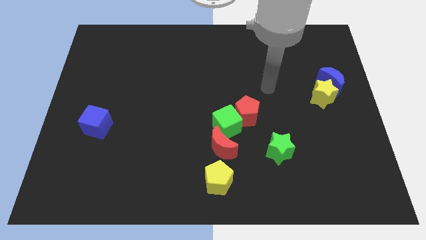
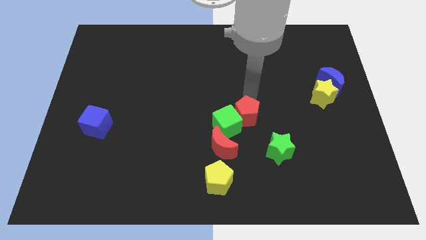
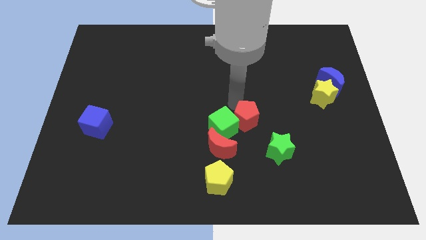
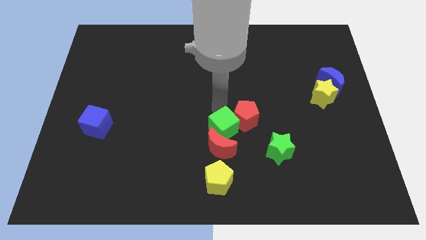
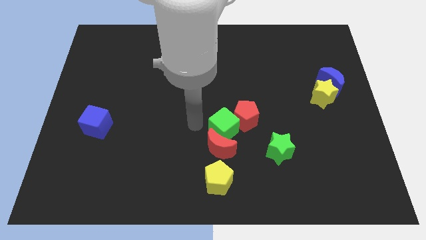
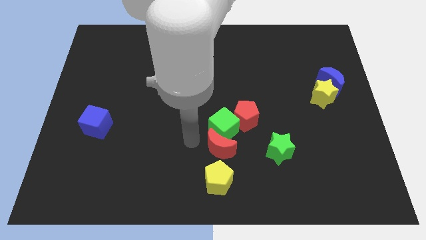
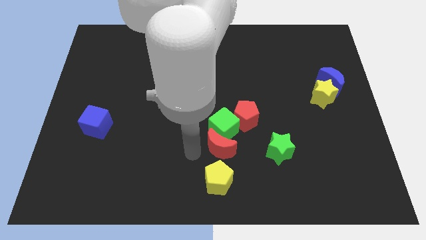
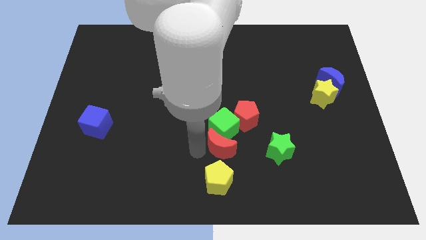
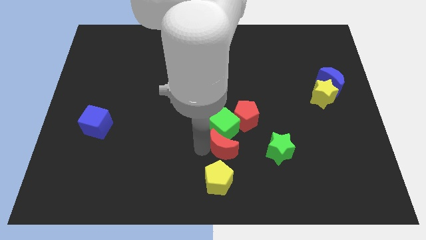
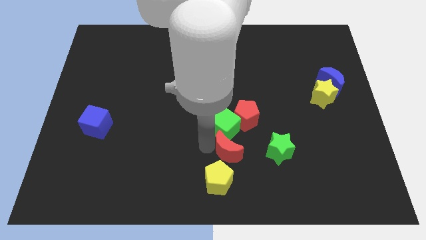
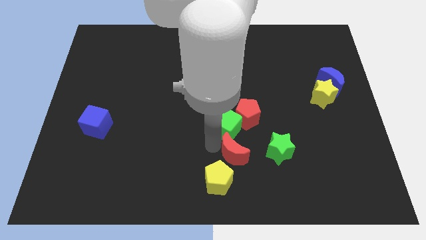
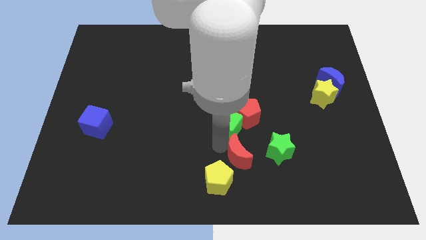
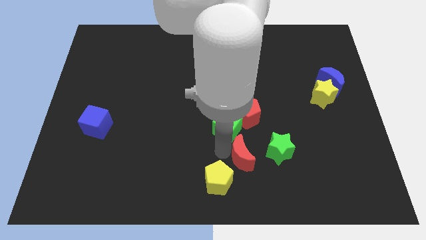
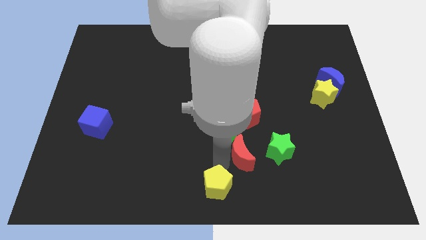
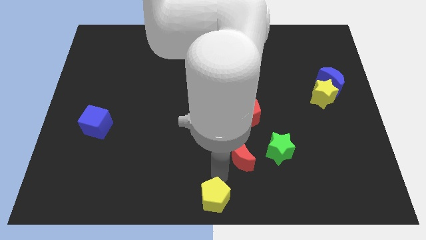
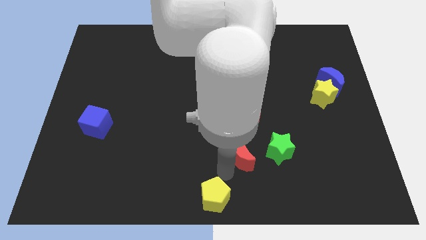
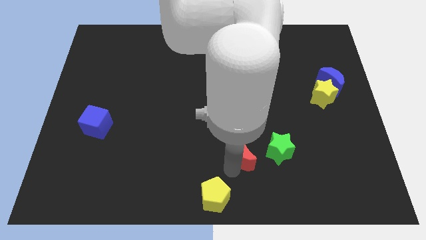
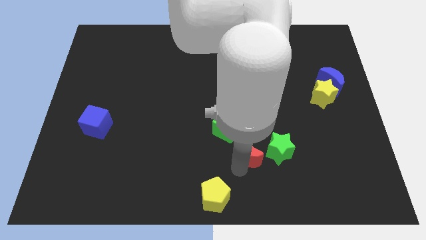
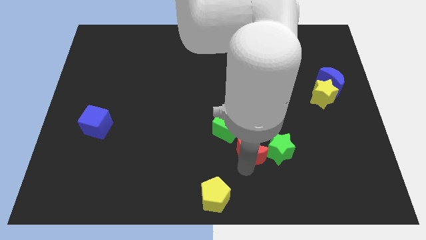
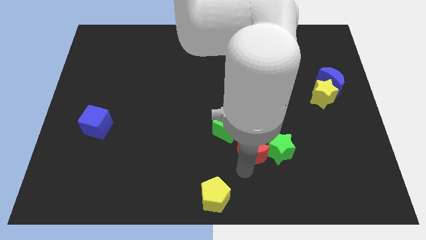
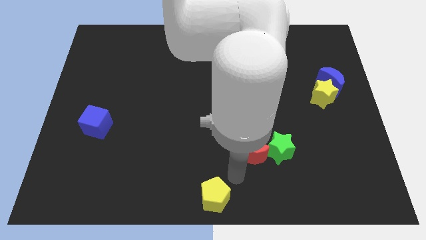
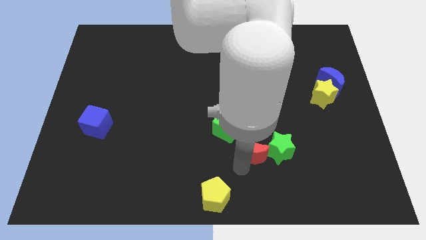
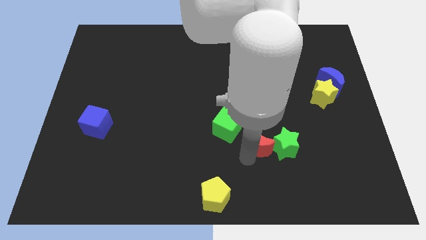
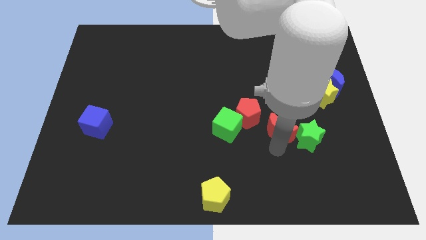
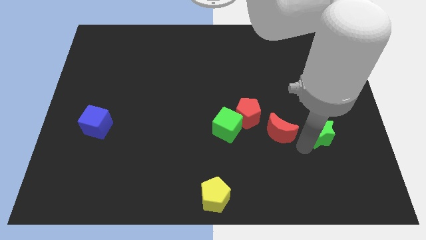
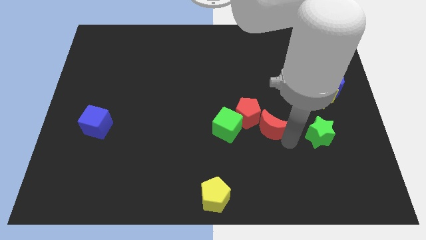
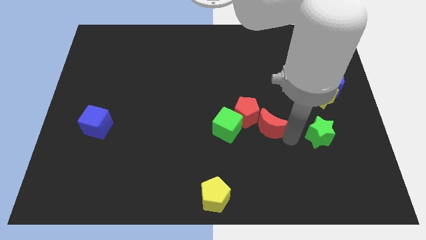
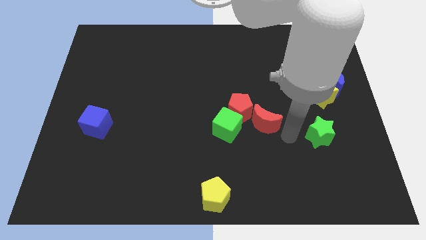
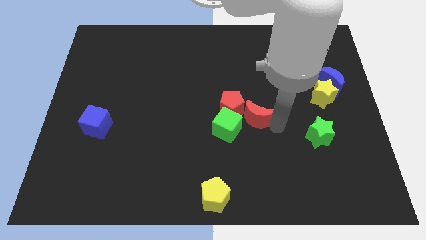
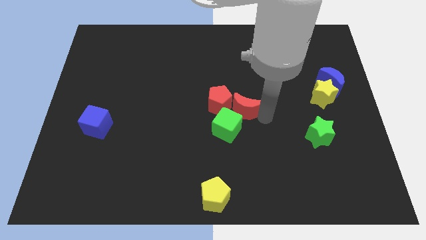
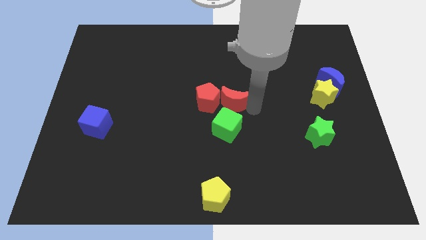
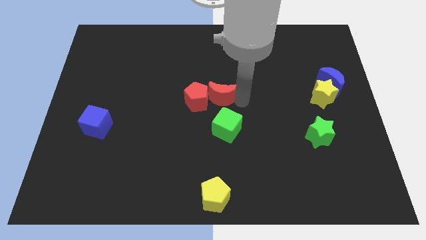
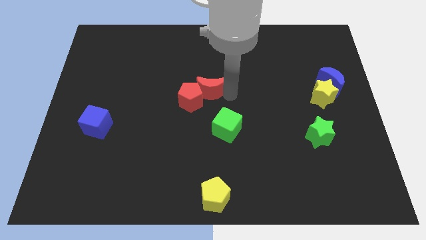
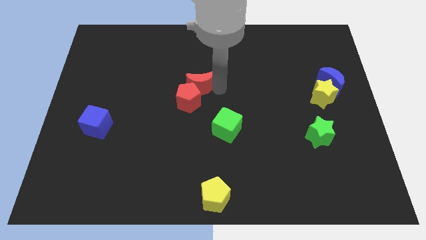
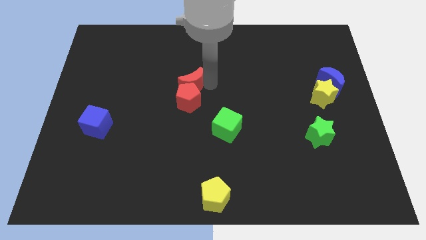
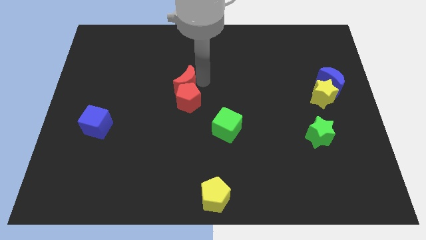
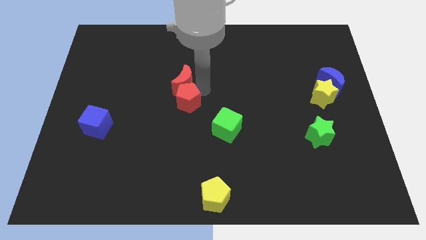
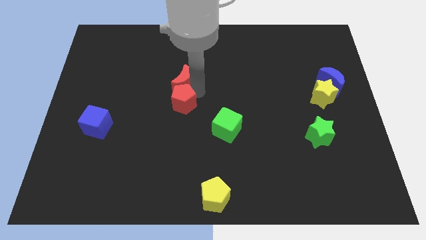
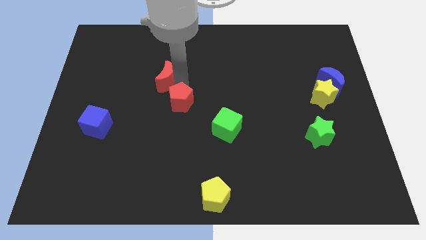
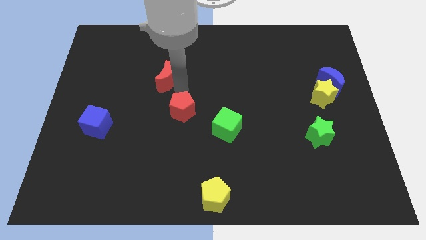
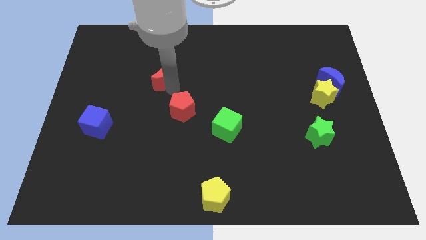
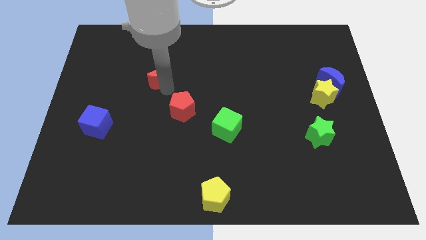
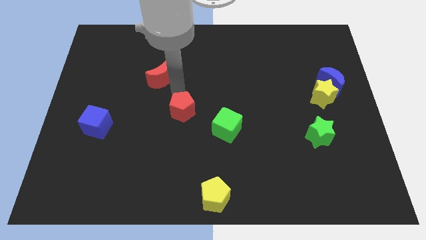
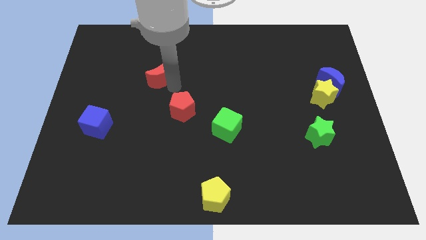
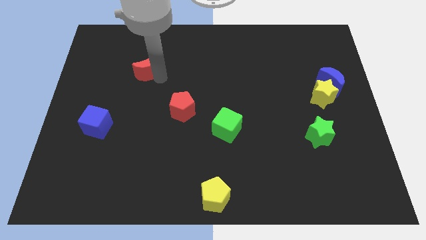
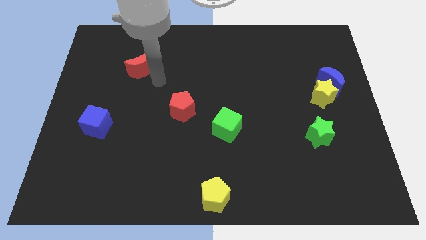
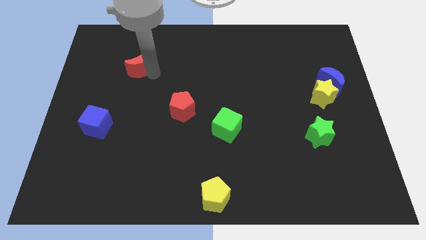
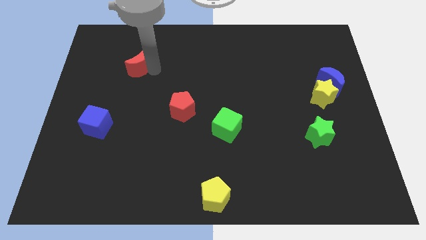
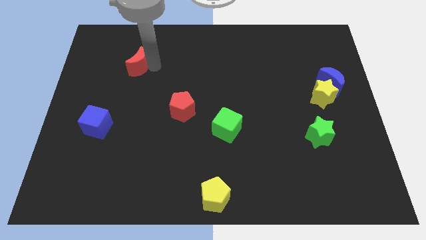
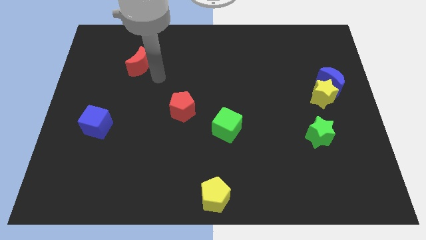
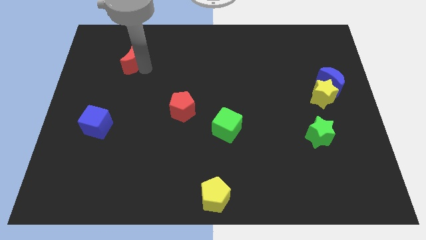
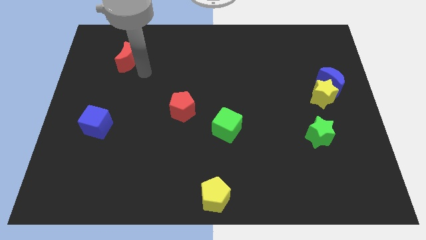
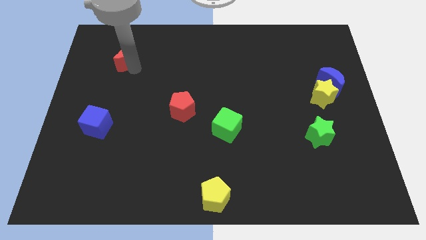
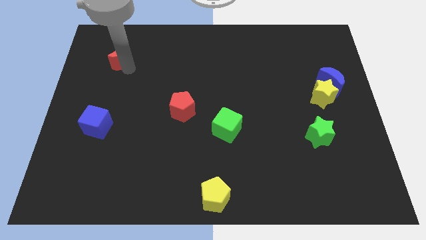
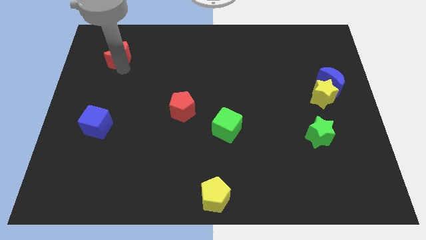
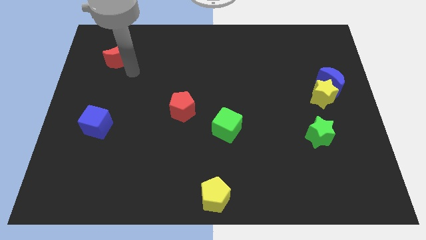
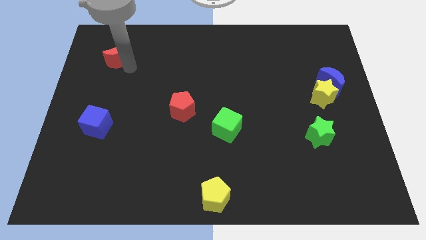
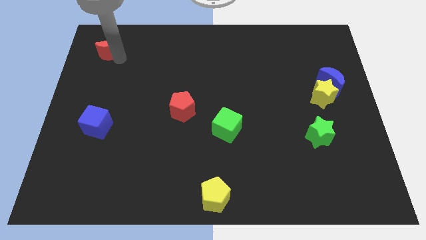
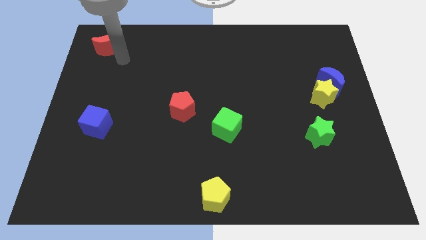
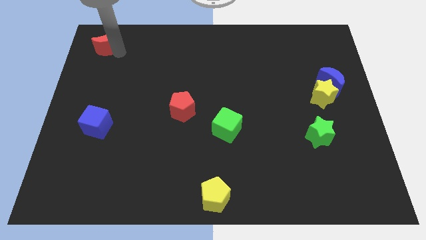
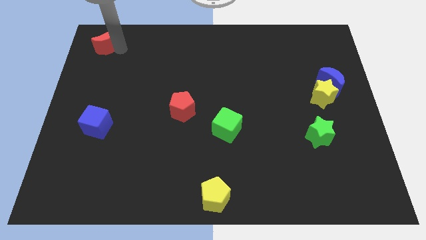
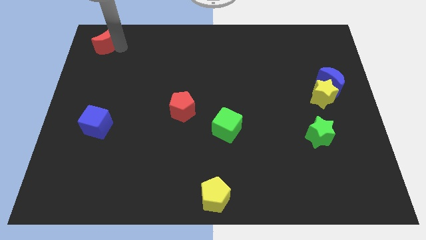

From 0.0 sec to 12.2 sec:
slide the red moon to the top left
